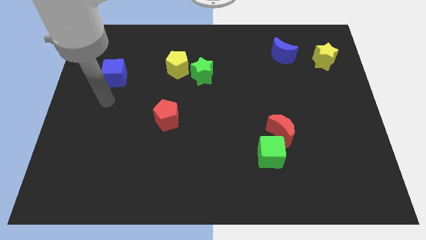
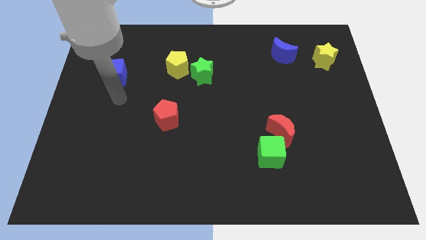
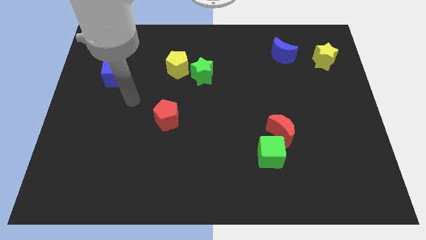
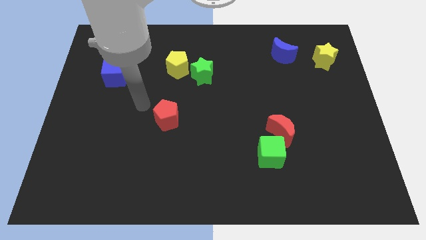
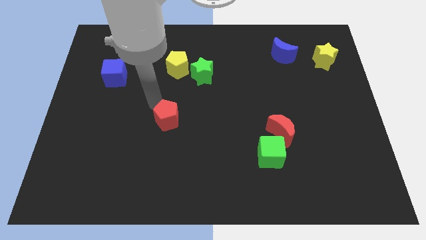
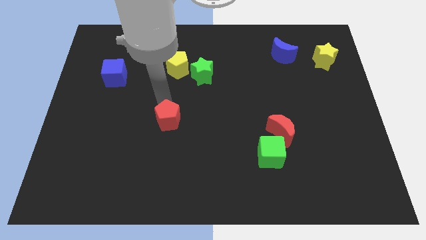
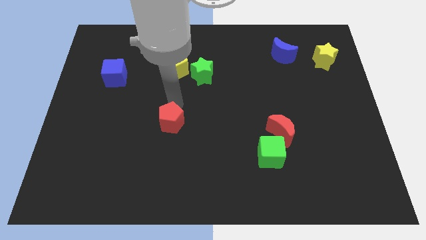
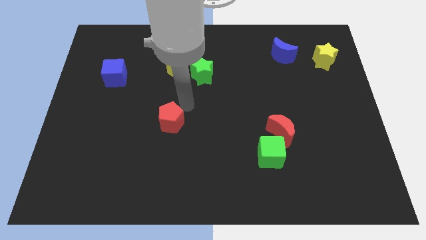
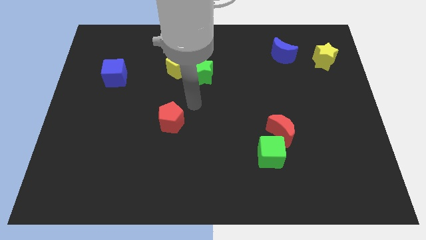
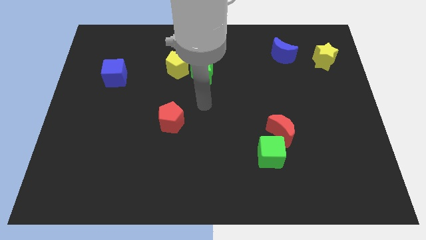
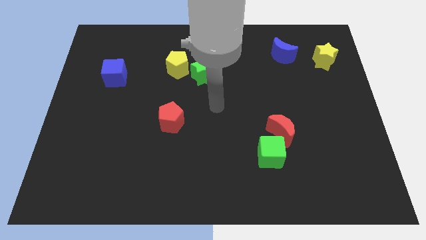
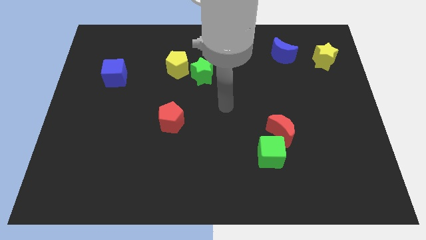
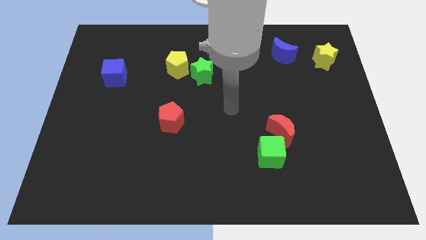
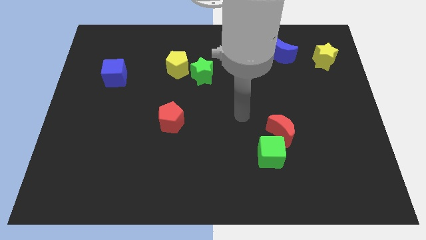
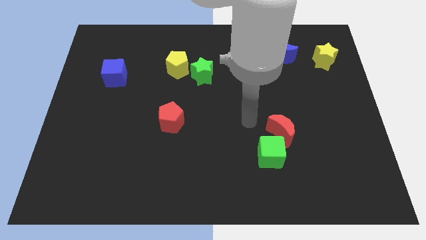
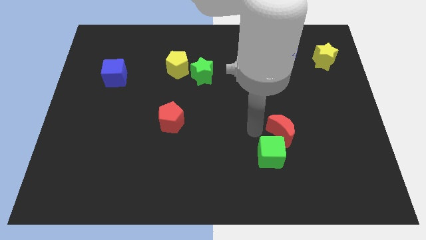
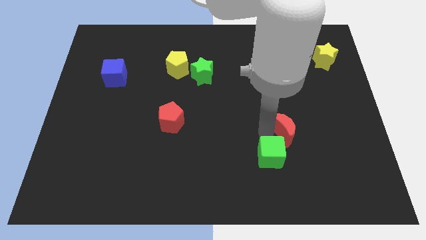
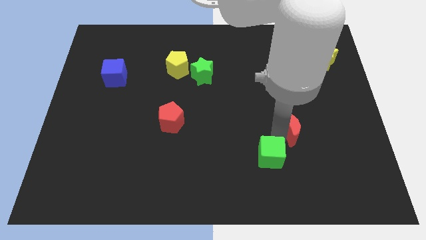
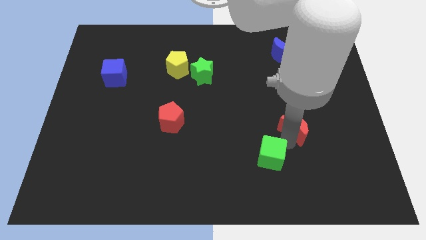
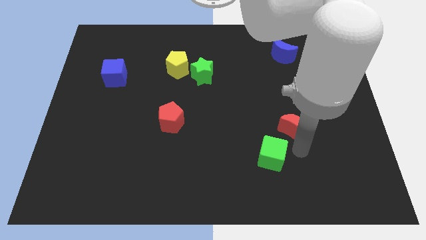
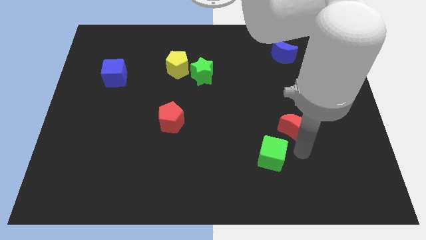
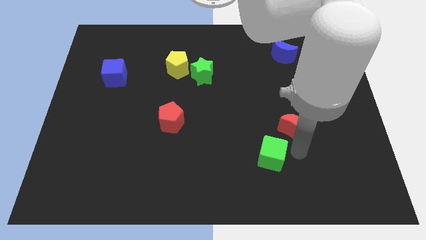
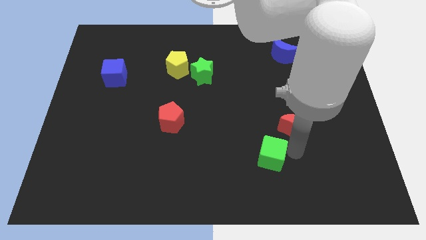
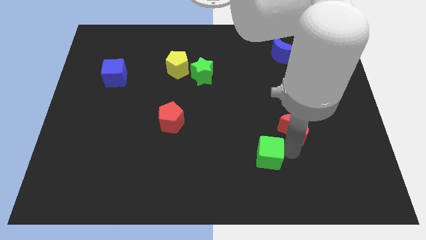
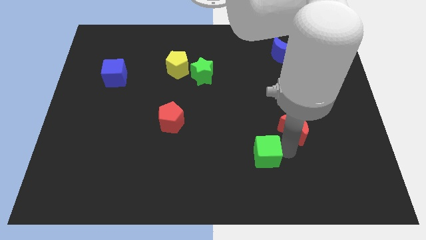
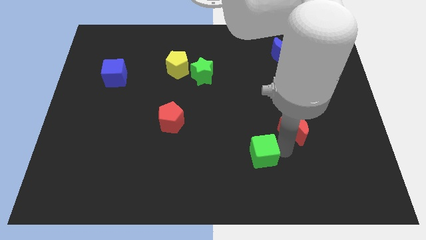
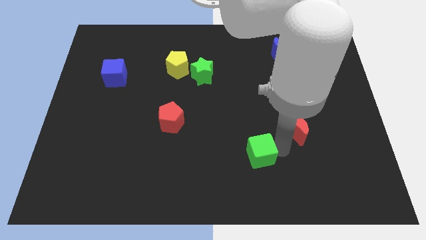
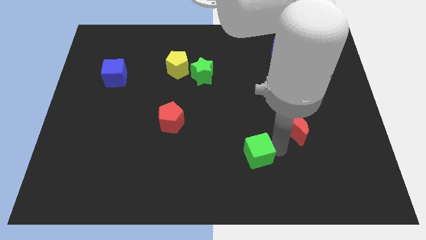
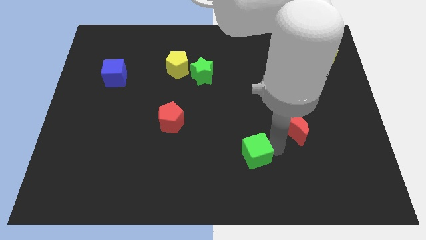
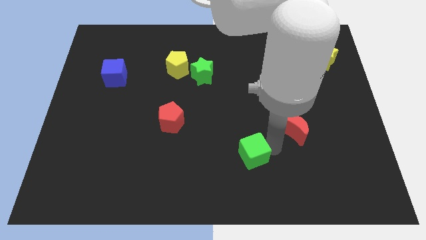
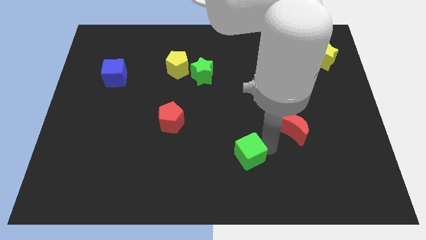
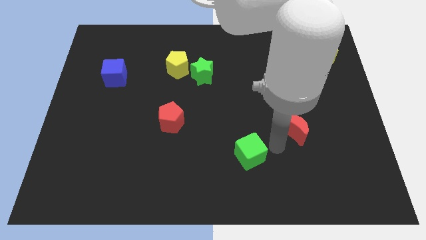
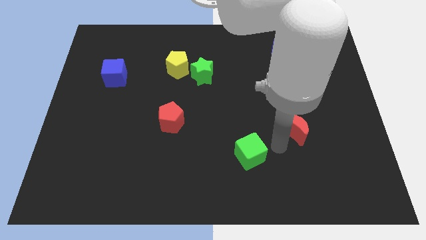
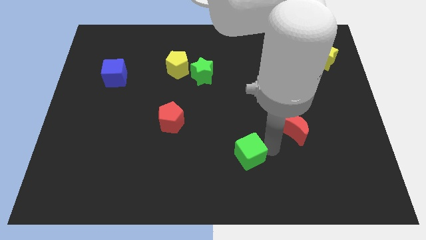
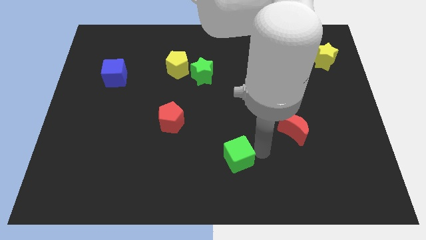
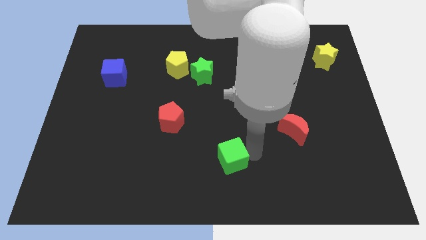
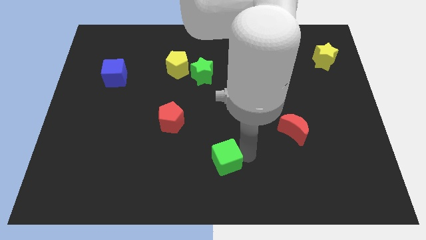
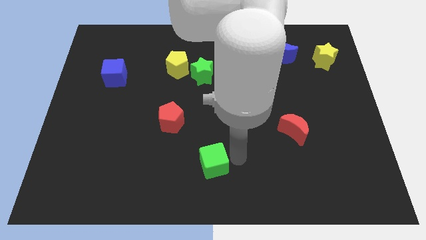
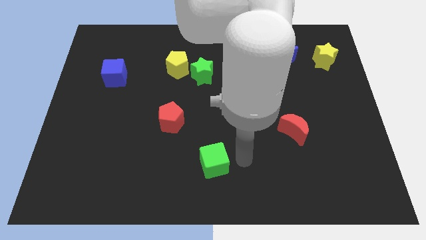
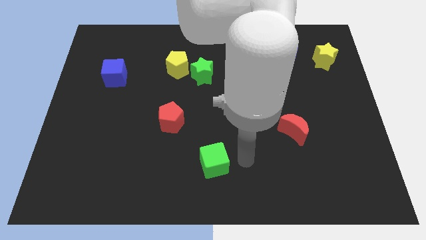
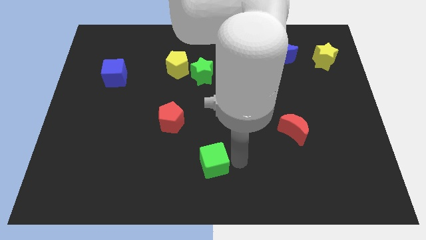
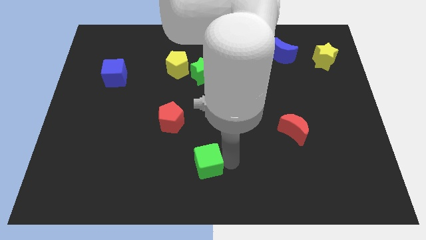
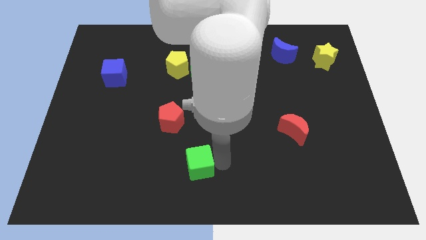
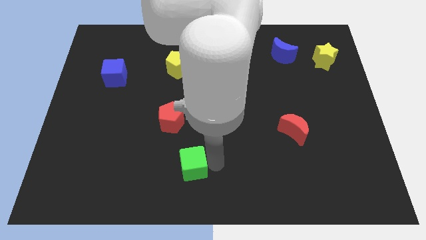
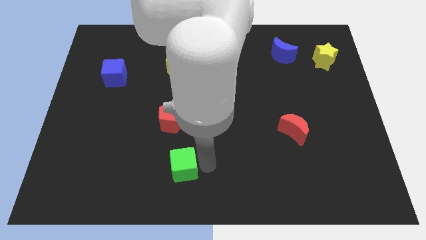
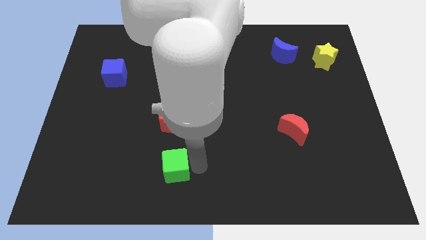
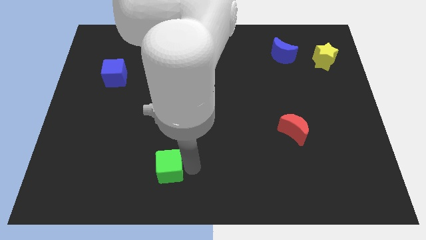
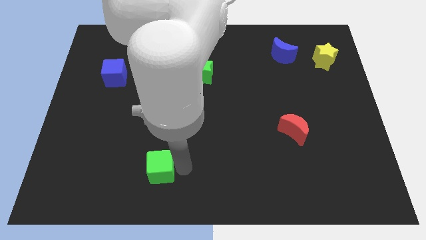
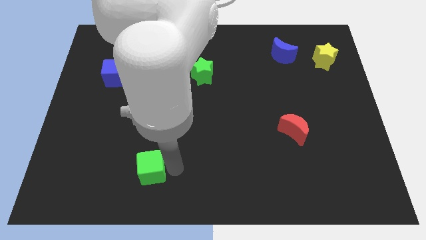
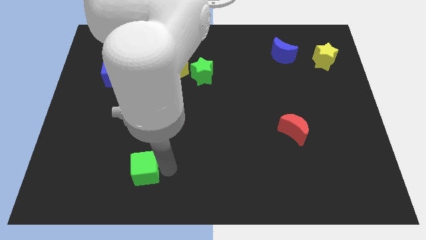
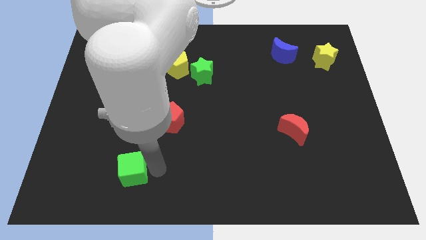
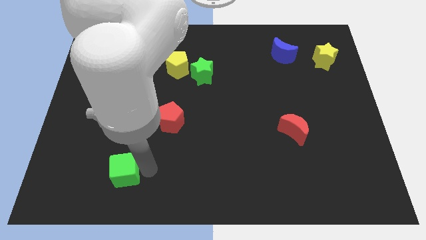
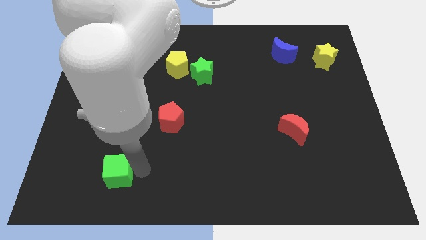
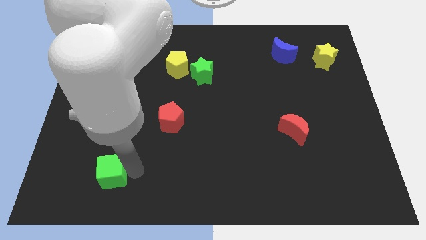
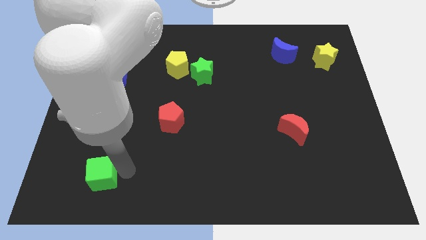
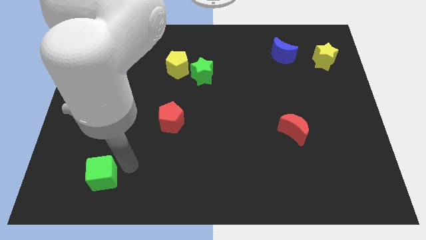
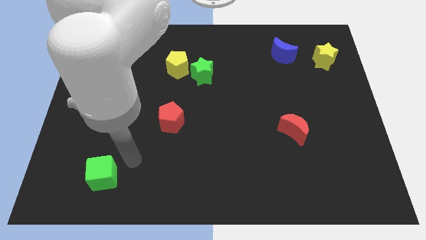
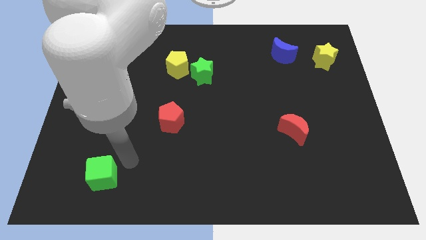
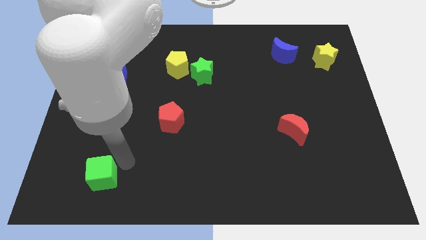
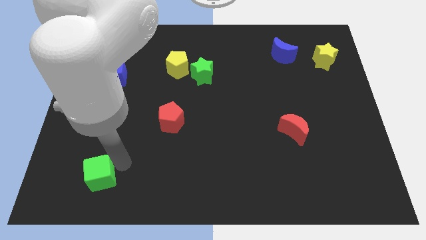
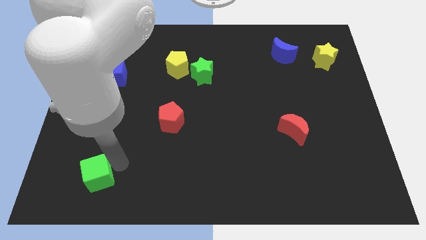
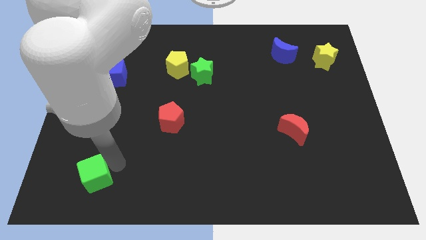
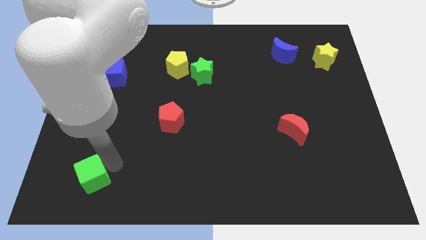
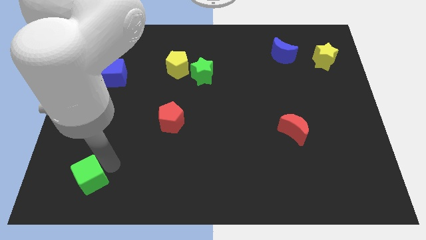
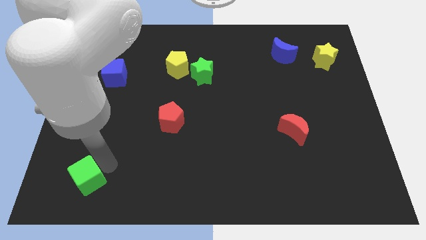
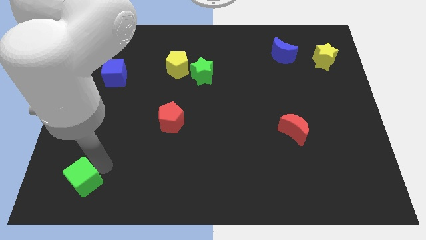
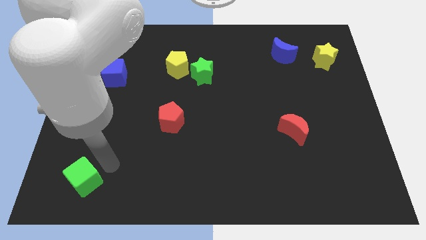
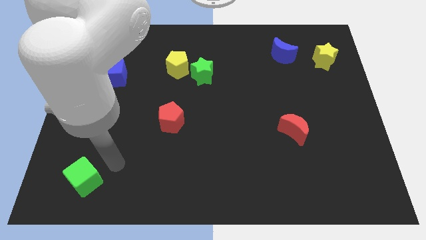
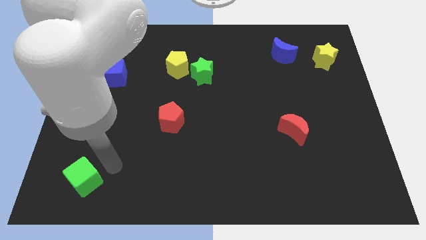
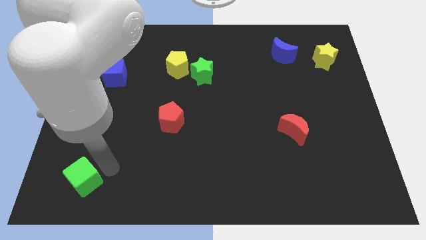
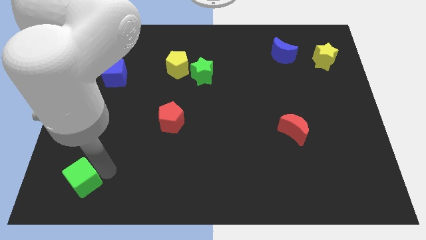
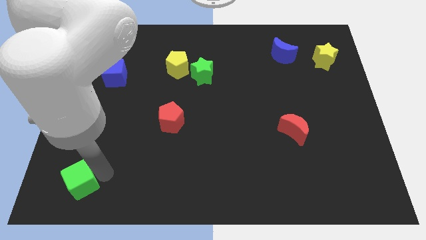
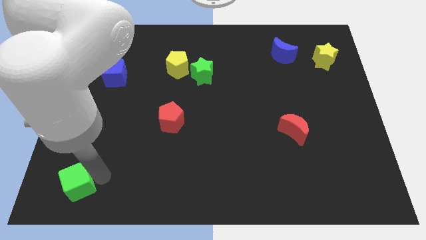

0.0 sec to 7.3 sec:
slide the green cube to the lower left corner
